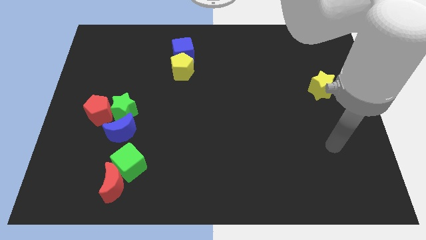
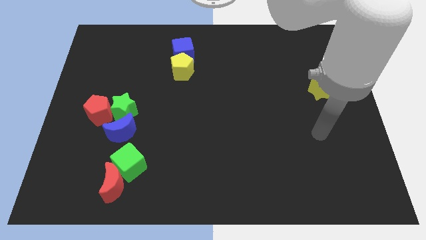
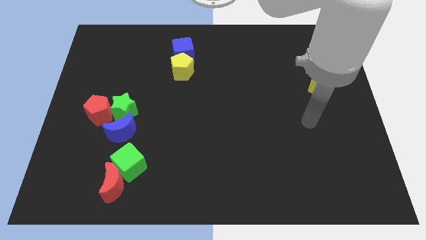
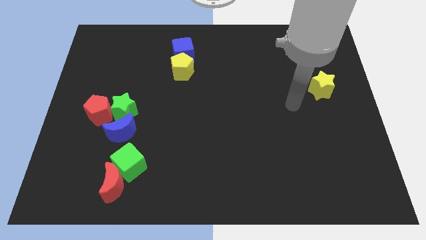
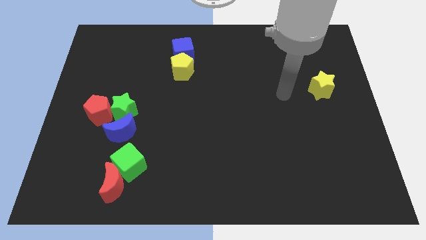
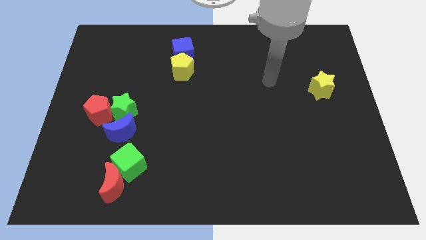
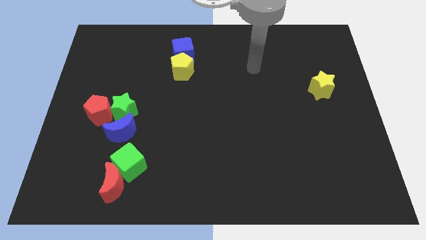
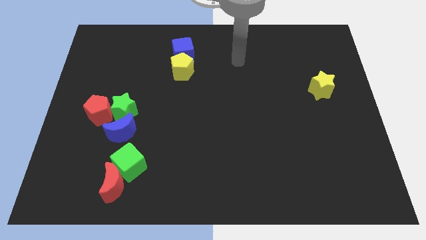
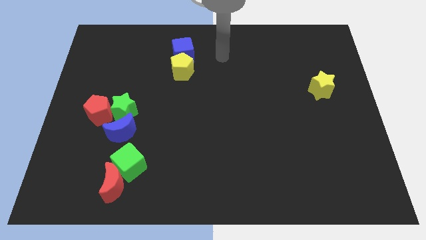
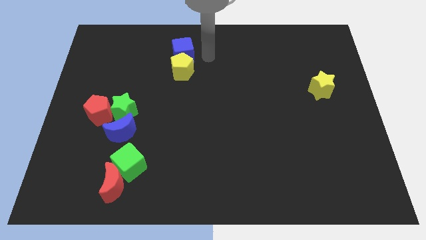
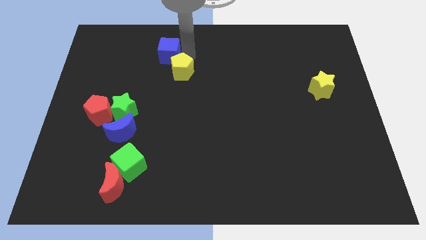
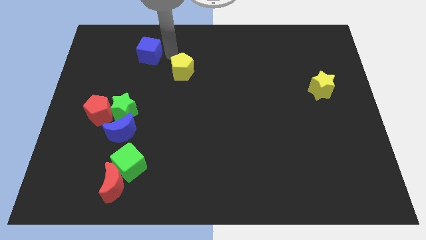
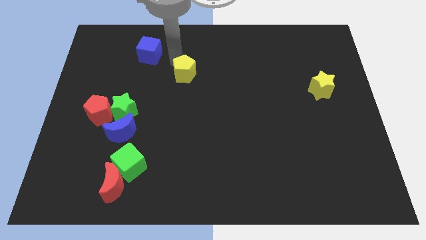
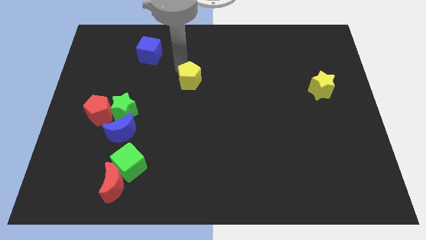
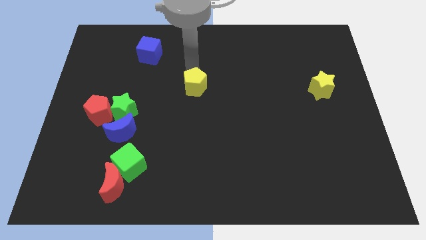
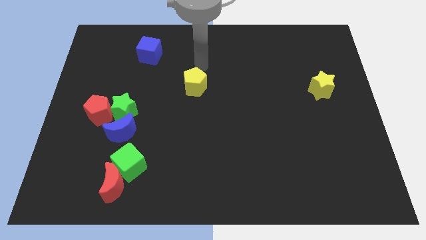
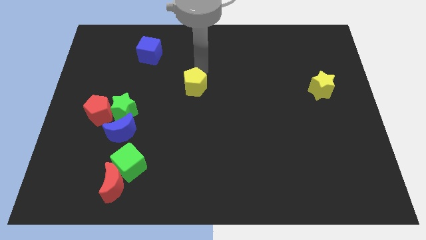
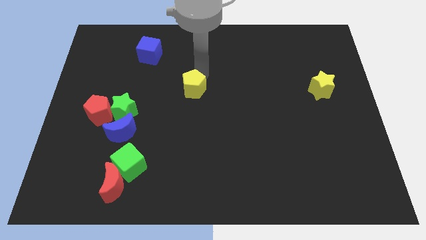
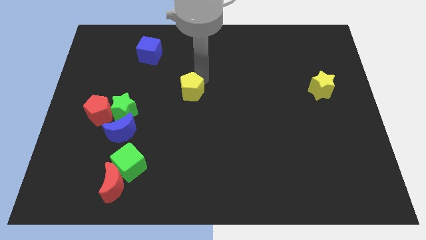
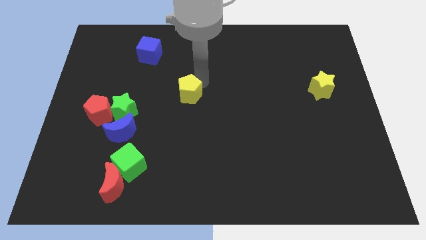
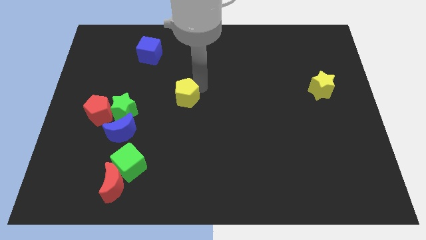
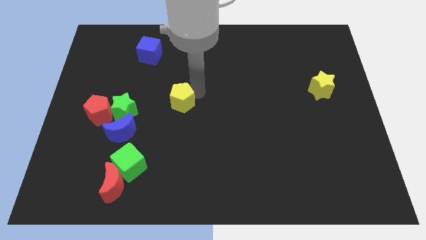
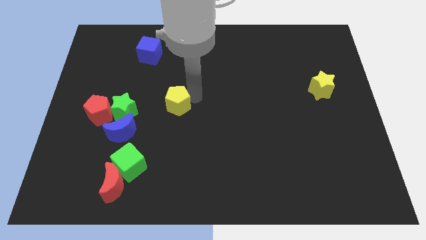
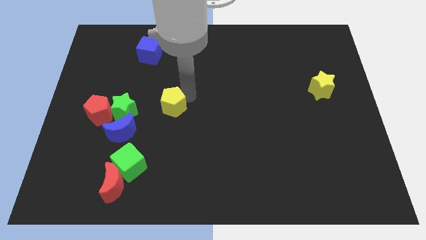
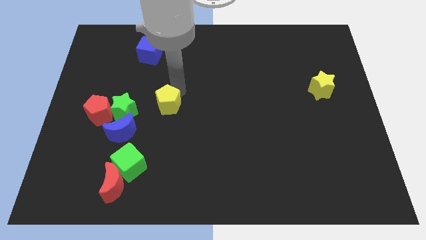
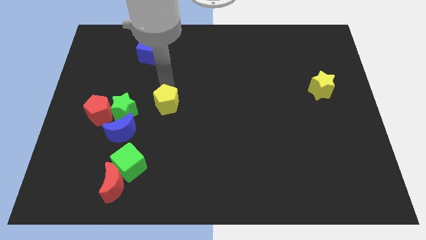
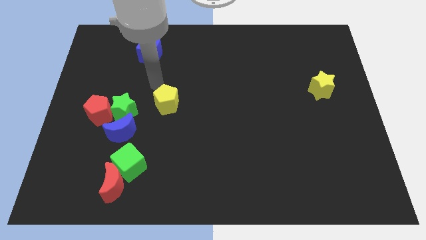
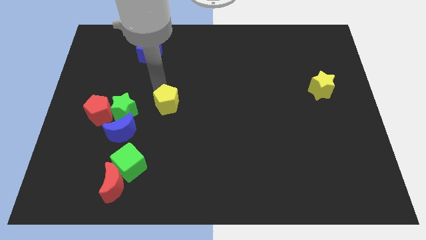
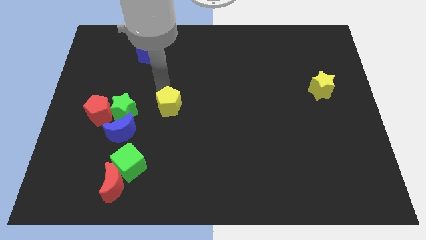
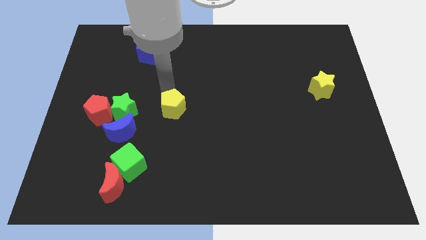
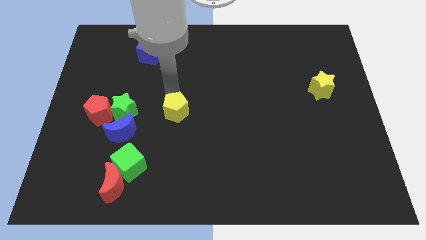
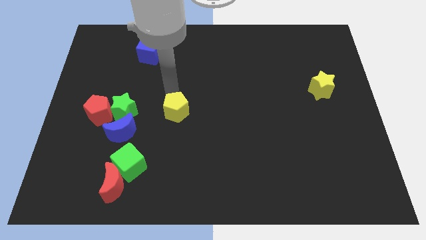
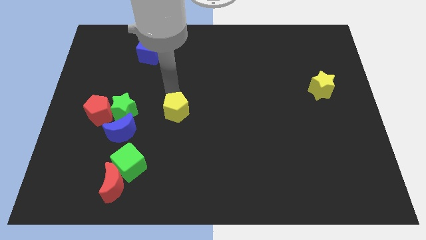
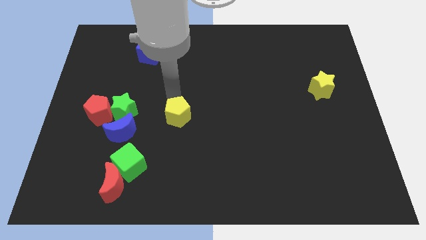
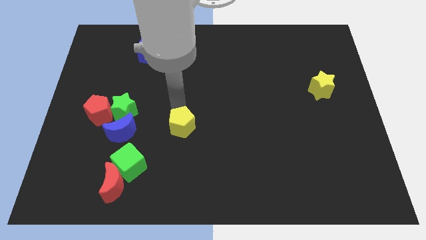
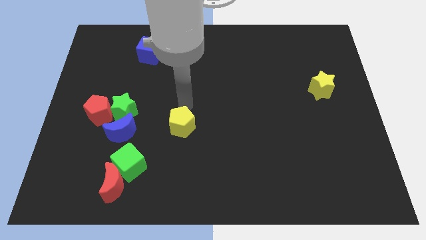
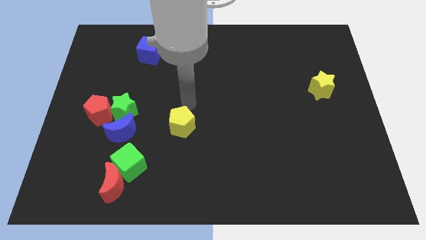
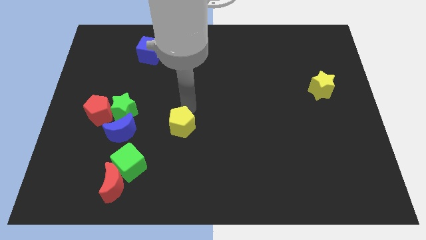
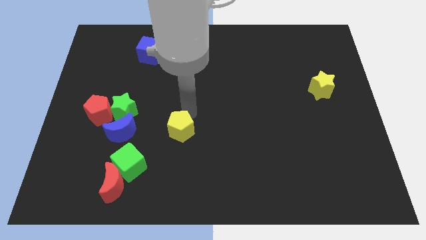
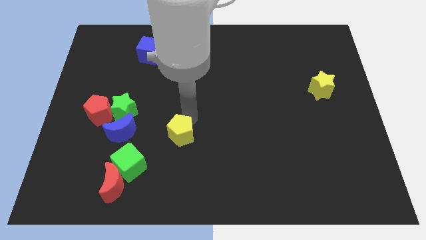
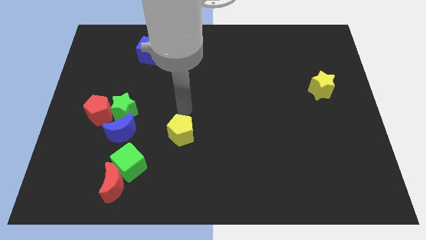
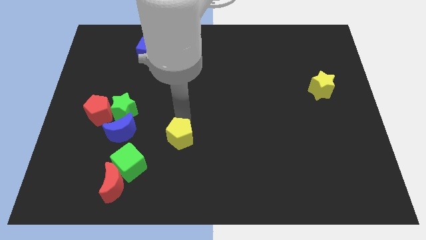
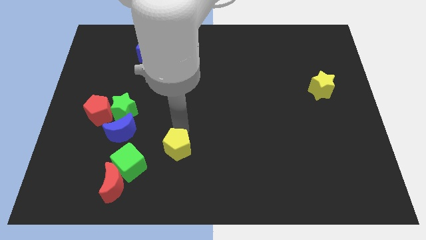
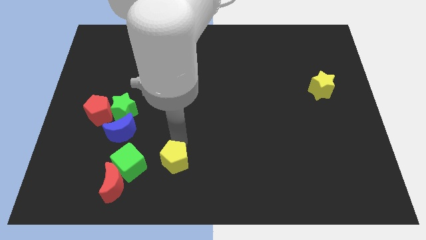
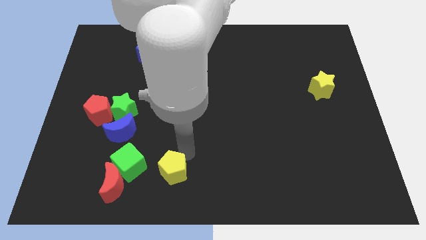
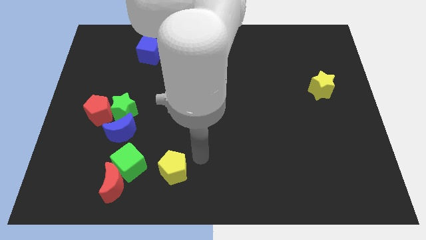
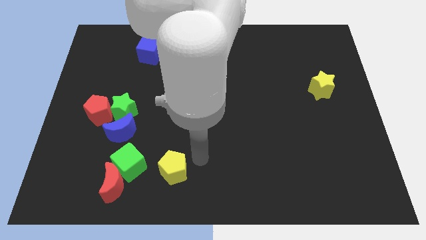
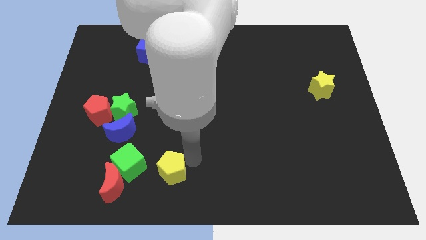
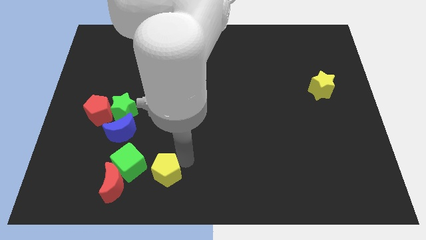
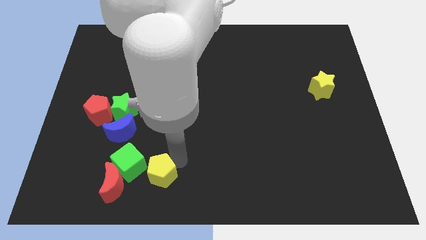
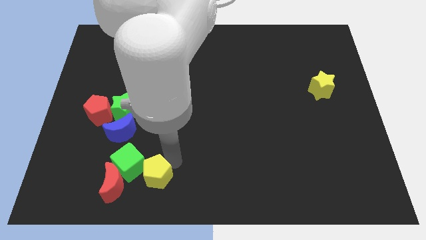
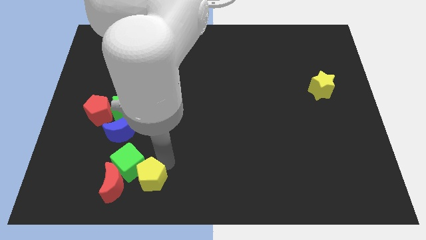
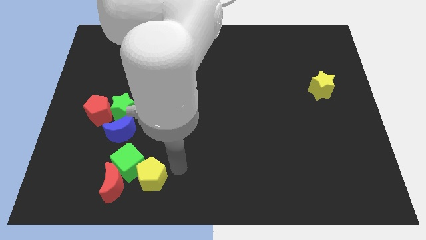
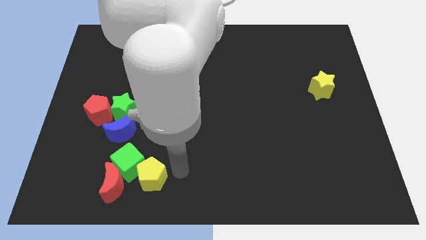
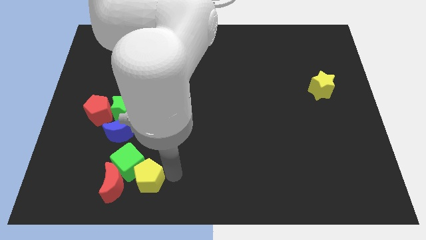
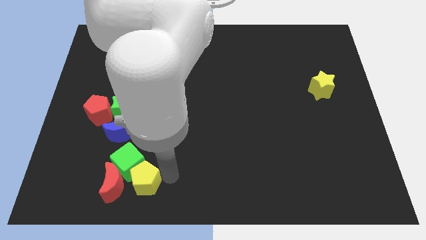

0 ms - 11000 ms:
move the yellow pentagon close to the red moon
